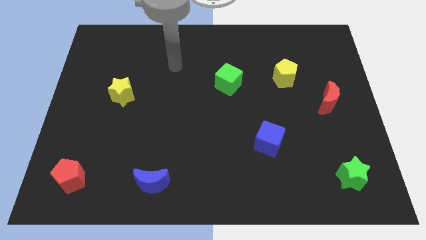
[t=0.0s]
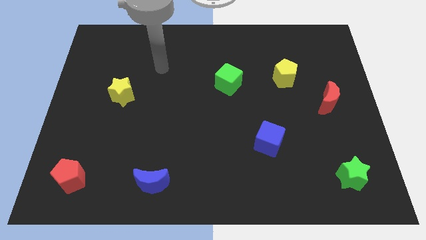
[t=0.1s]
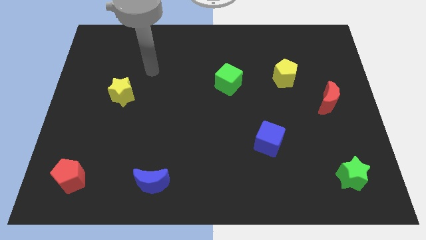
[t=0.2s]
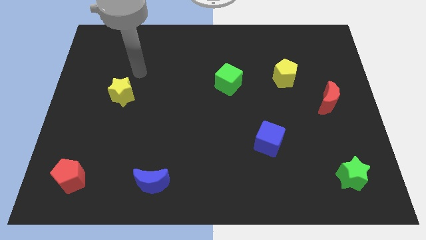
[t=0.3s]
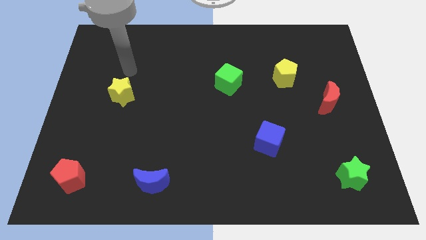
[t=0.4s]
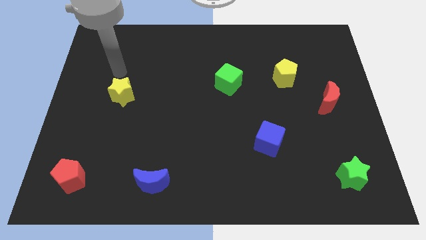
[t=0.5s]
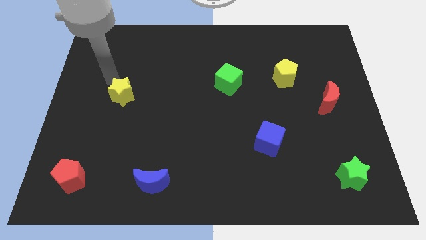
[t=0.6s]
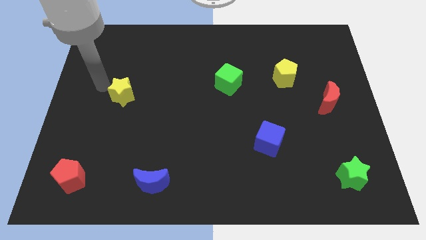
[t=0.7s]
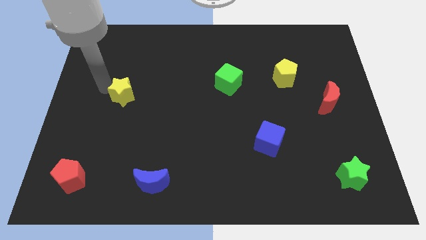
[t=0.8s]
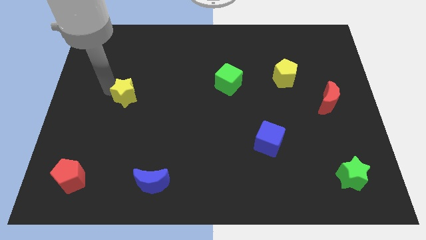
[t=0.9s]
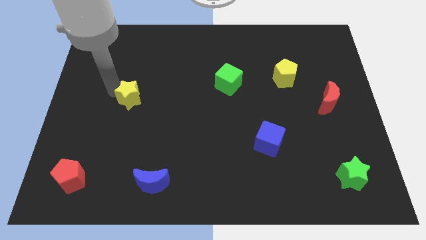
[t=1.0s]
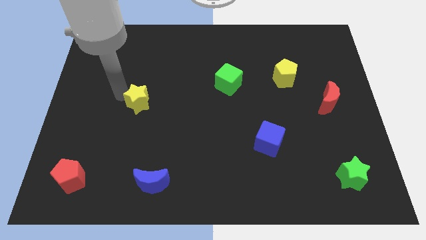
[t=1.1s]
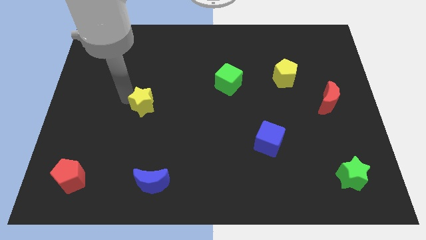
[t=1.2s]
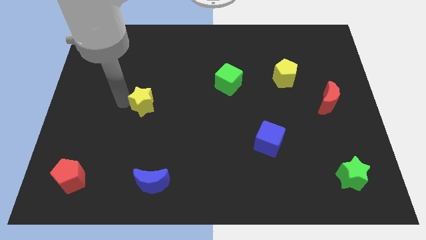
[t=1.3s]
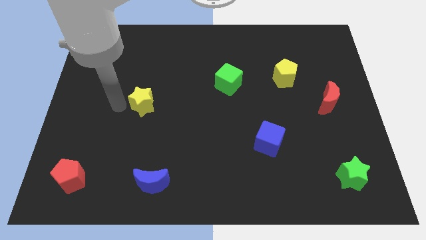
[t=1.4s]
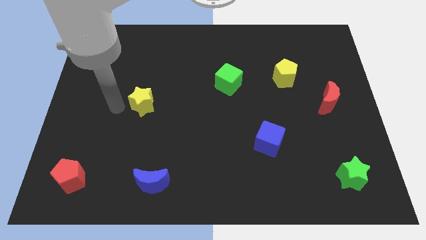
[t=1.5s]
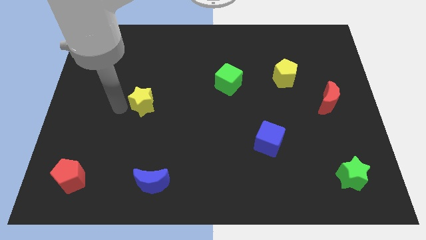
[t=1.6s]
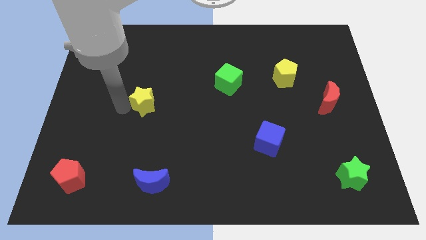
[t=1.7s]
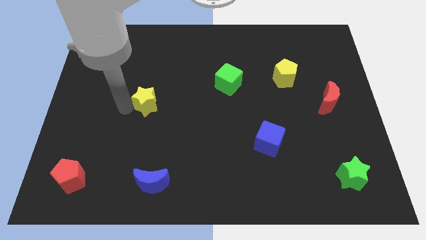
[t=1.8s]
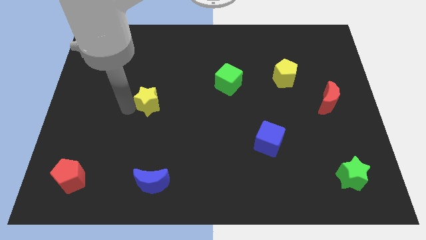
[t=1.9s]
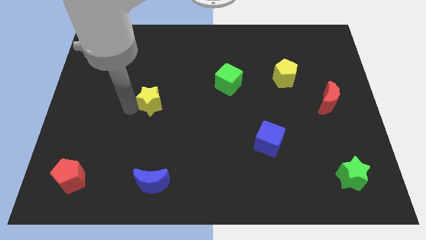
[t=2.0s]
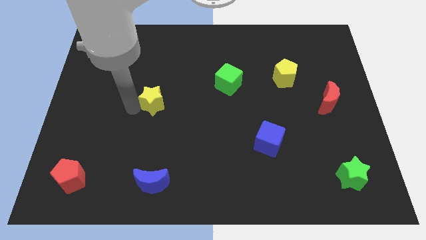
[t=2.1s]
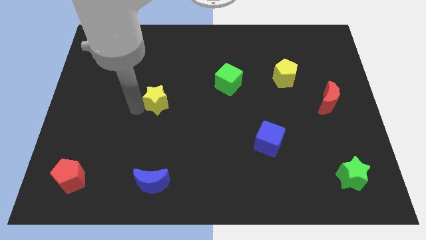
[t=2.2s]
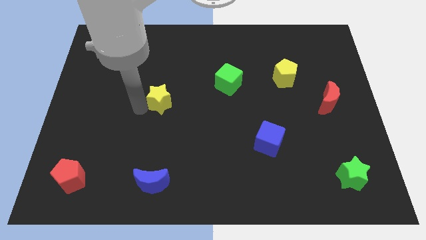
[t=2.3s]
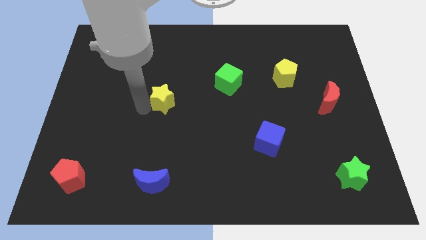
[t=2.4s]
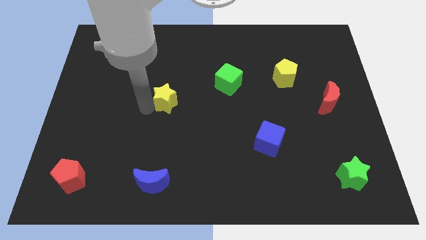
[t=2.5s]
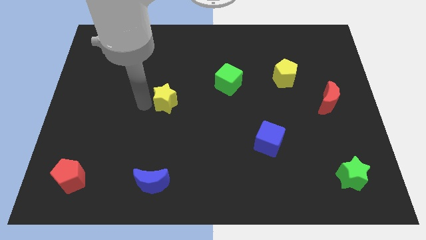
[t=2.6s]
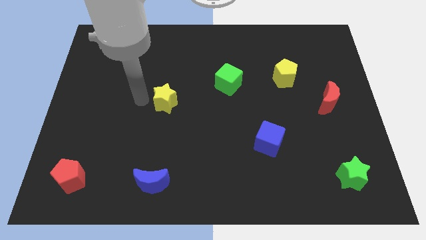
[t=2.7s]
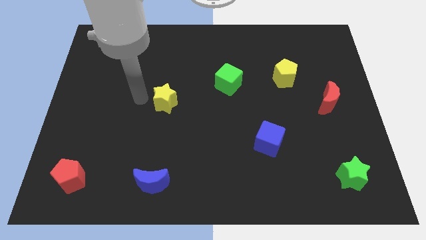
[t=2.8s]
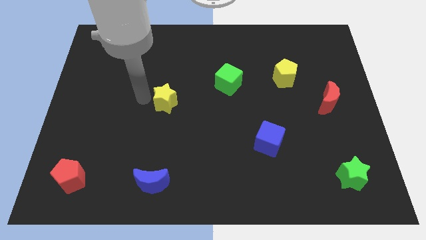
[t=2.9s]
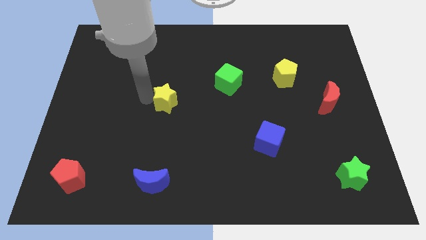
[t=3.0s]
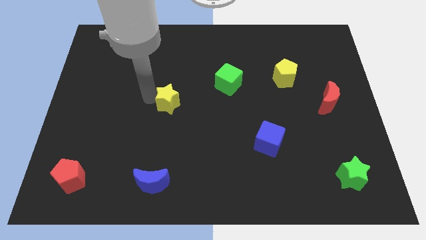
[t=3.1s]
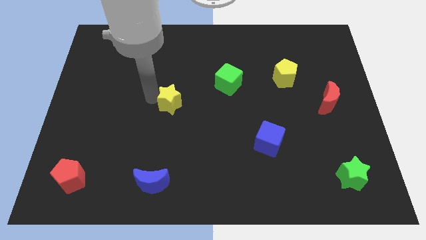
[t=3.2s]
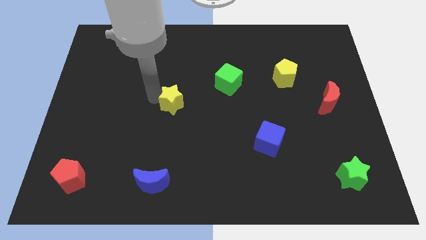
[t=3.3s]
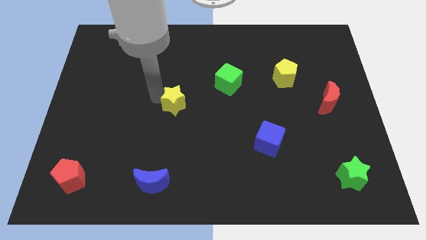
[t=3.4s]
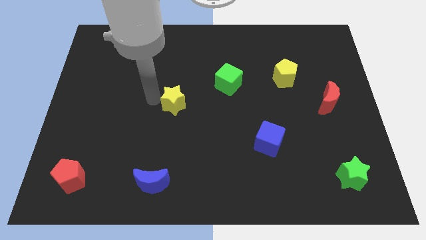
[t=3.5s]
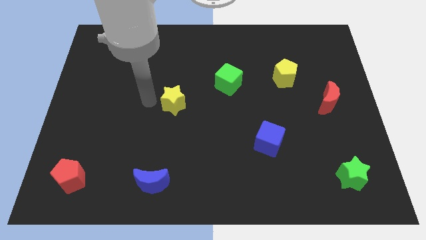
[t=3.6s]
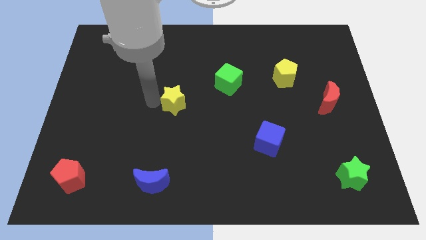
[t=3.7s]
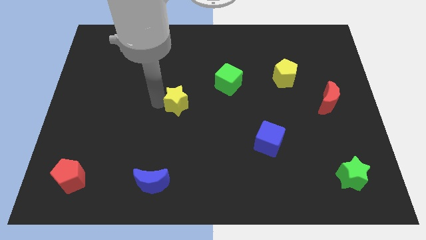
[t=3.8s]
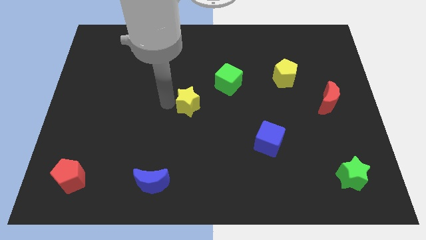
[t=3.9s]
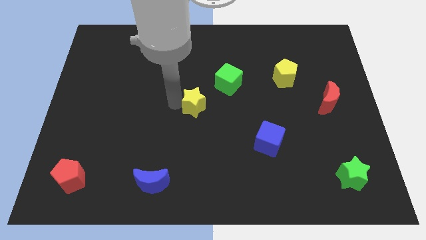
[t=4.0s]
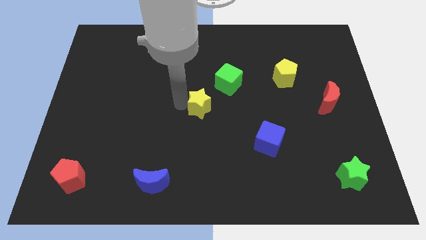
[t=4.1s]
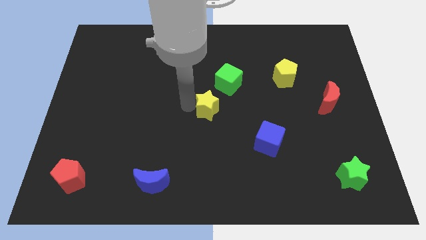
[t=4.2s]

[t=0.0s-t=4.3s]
slide the yellow star right

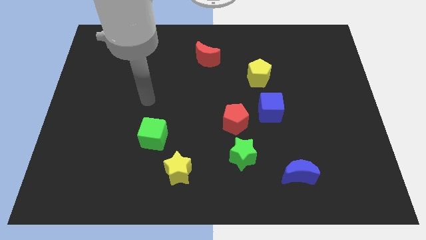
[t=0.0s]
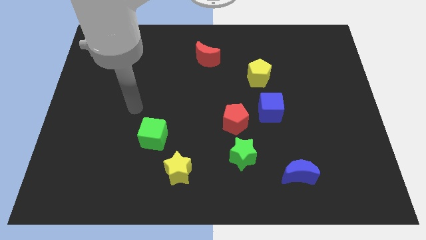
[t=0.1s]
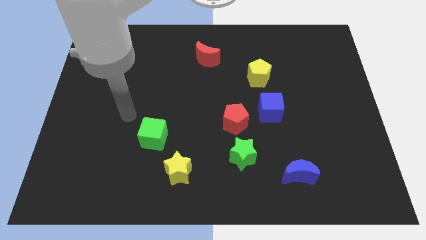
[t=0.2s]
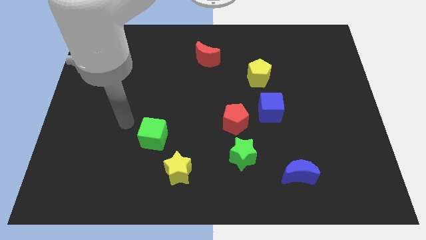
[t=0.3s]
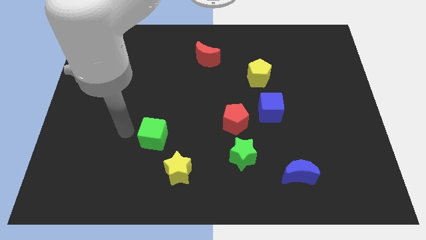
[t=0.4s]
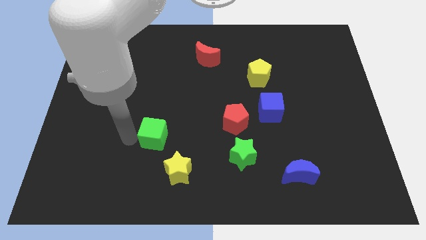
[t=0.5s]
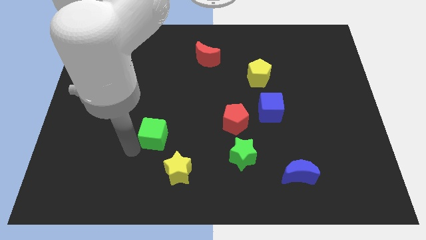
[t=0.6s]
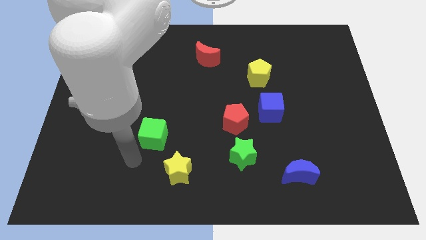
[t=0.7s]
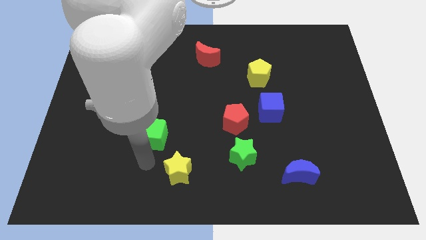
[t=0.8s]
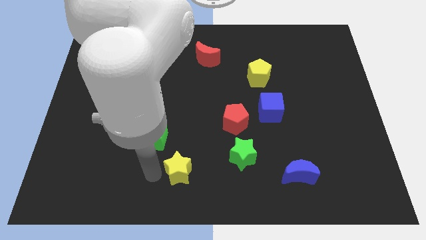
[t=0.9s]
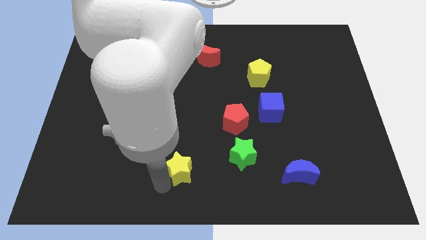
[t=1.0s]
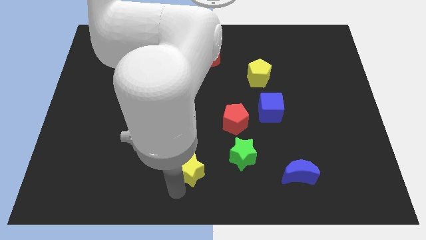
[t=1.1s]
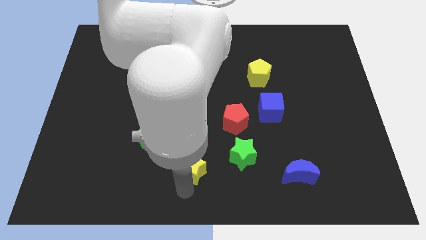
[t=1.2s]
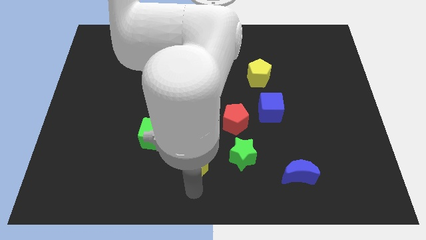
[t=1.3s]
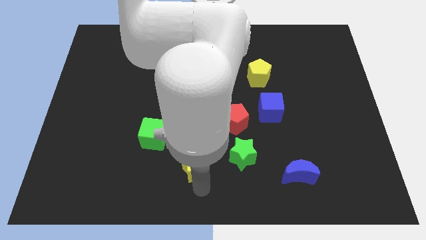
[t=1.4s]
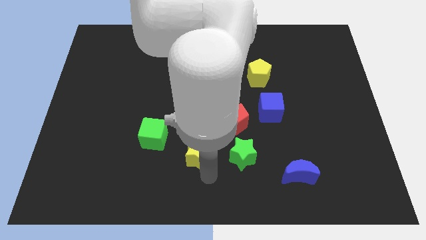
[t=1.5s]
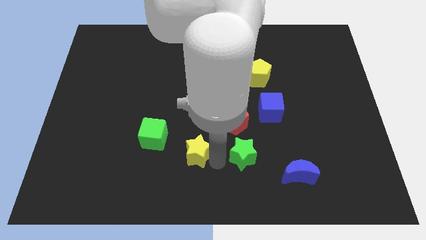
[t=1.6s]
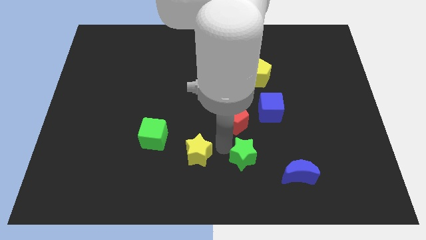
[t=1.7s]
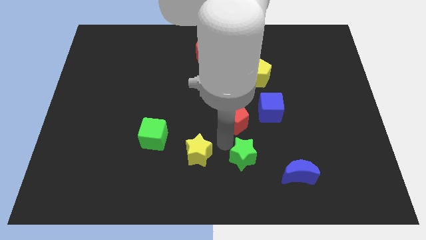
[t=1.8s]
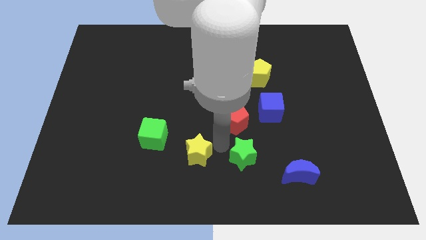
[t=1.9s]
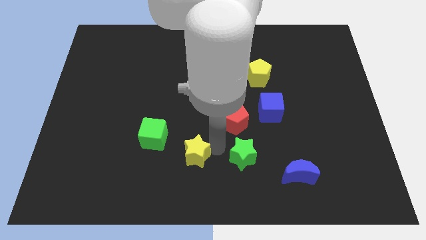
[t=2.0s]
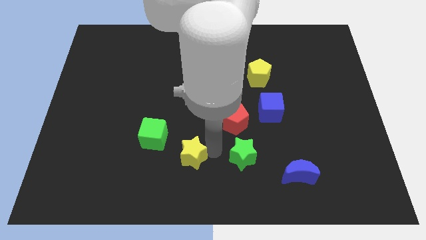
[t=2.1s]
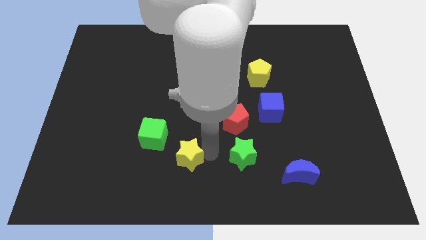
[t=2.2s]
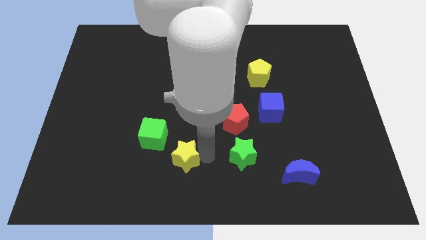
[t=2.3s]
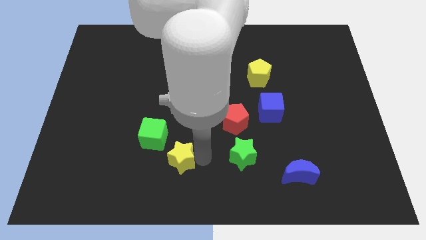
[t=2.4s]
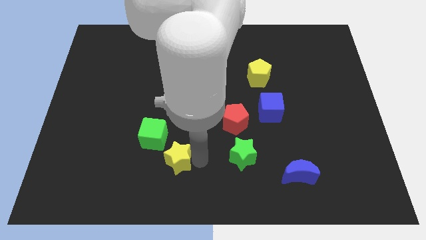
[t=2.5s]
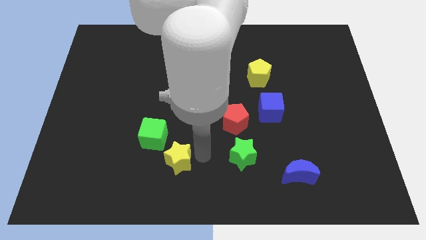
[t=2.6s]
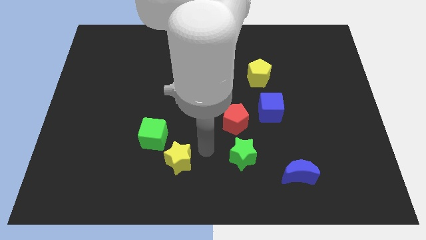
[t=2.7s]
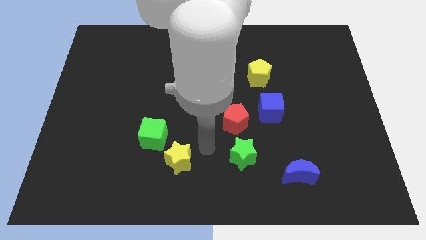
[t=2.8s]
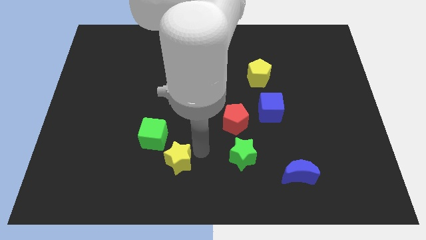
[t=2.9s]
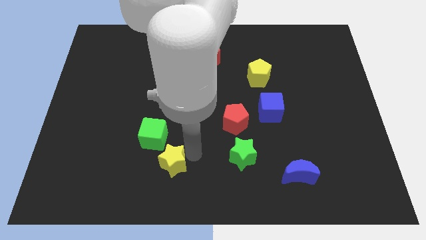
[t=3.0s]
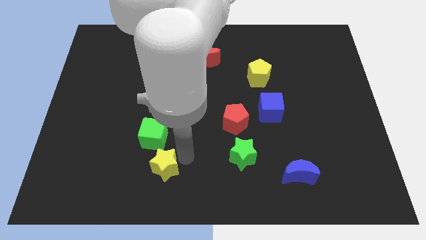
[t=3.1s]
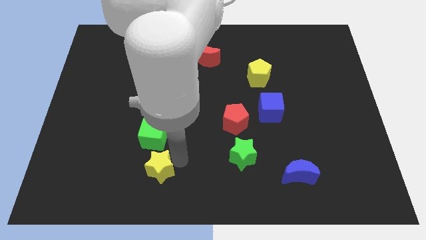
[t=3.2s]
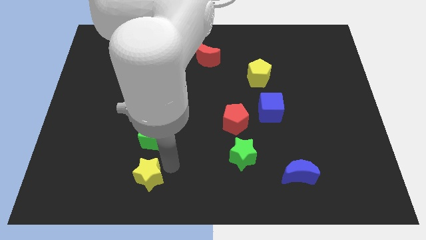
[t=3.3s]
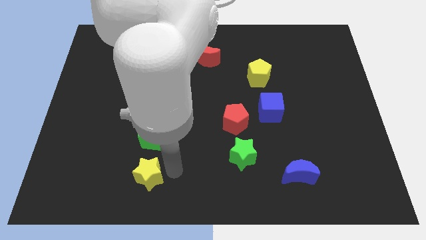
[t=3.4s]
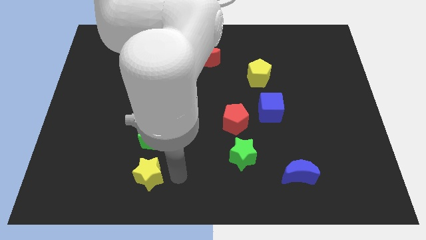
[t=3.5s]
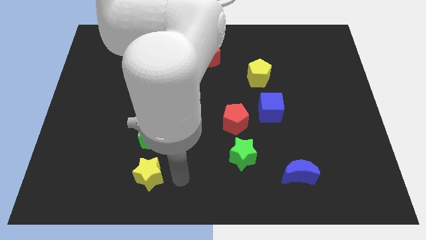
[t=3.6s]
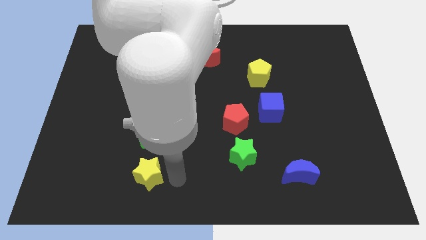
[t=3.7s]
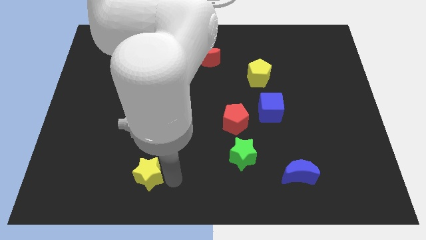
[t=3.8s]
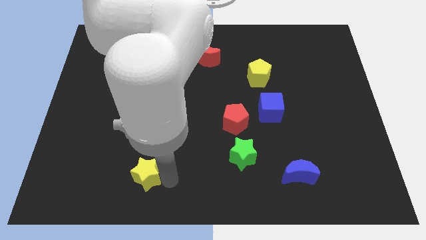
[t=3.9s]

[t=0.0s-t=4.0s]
slide the yellow star left somewhat
